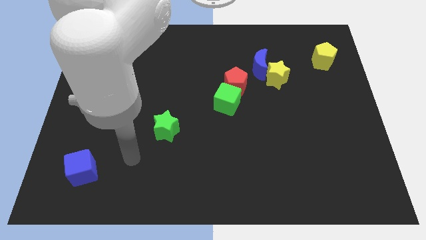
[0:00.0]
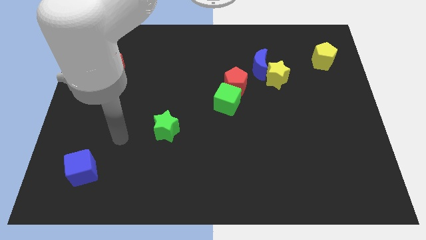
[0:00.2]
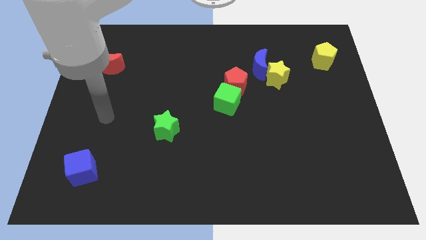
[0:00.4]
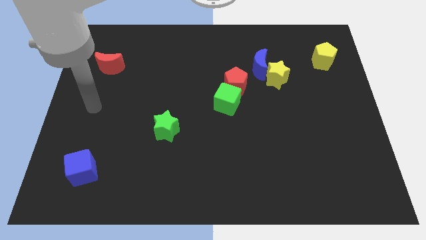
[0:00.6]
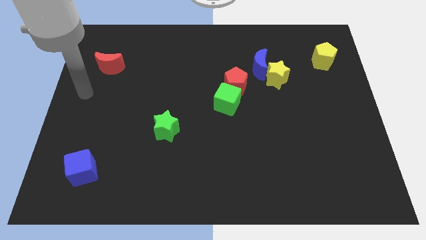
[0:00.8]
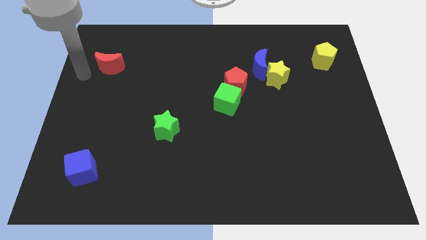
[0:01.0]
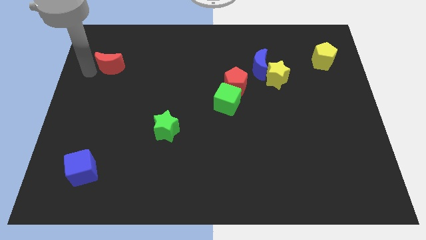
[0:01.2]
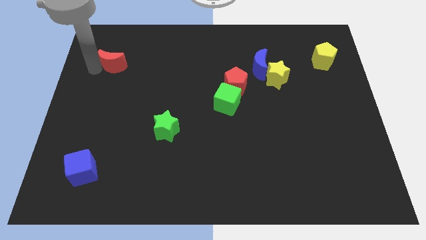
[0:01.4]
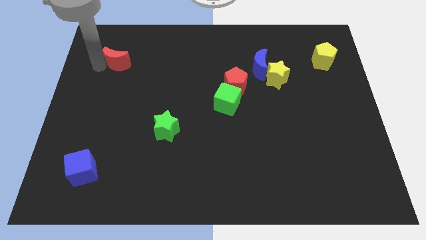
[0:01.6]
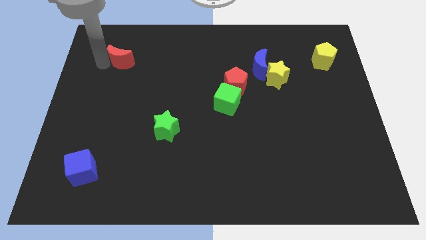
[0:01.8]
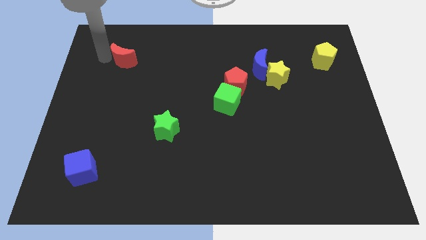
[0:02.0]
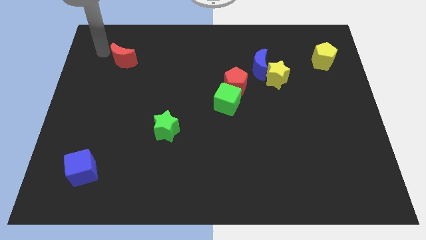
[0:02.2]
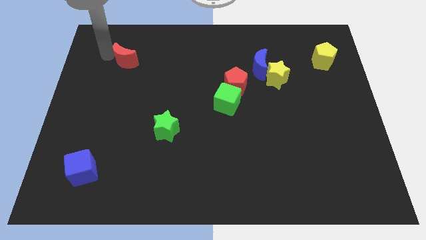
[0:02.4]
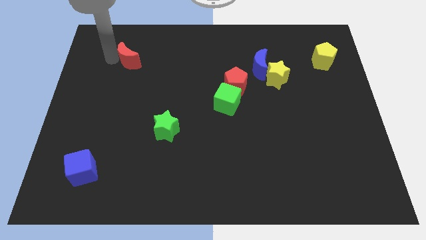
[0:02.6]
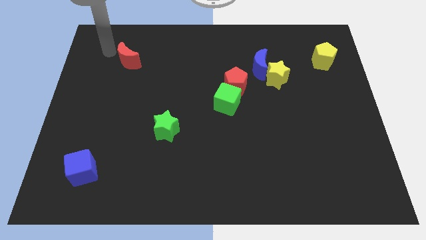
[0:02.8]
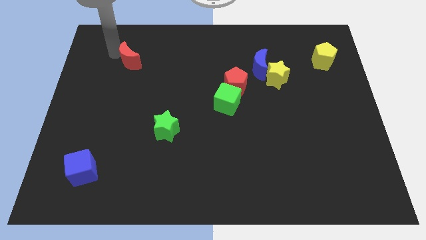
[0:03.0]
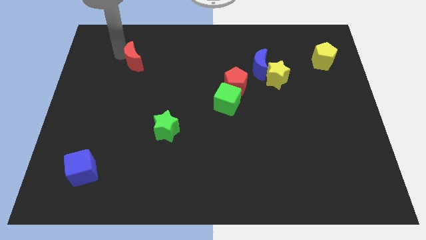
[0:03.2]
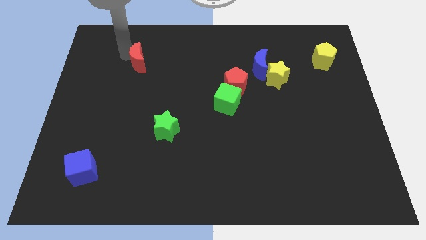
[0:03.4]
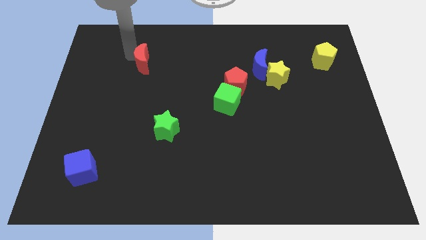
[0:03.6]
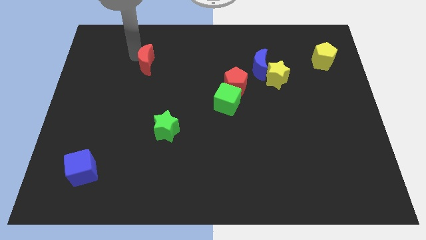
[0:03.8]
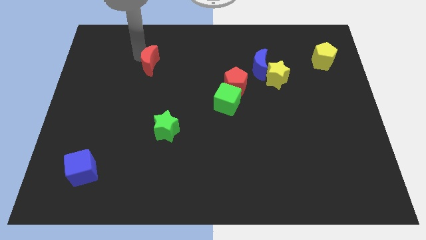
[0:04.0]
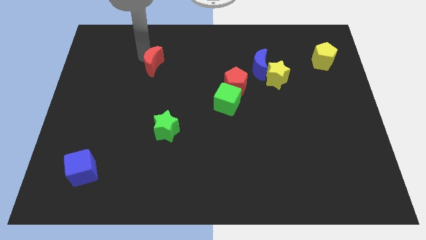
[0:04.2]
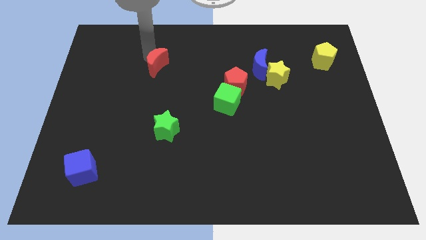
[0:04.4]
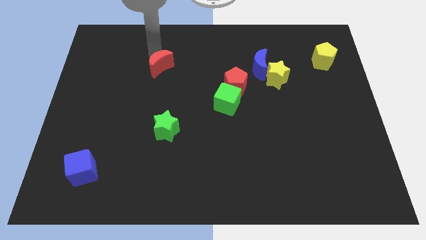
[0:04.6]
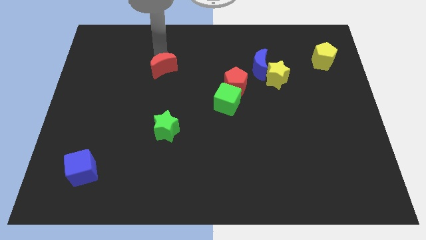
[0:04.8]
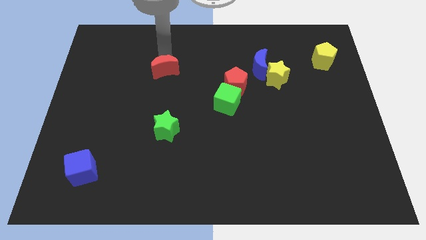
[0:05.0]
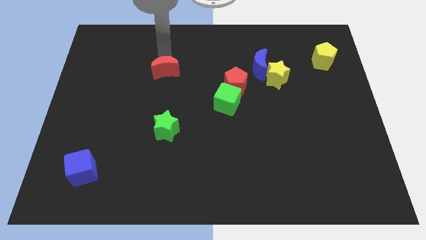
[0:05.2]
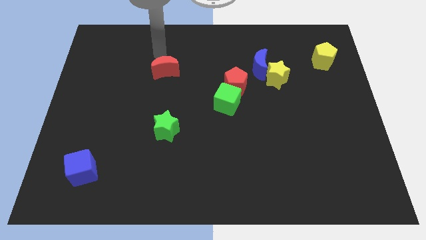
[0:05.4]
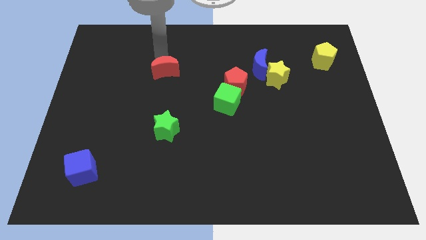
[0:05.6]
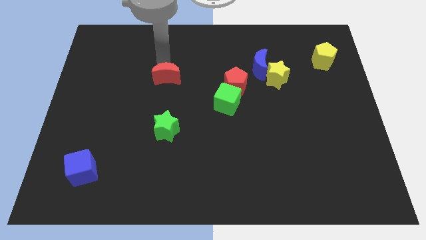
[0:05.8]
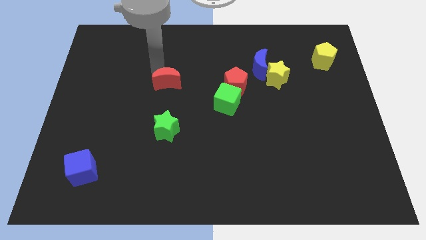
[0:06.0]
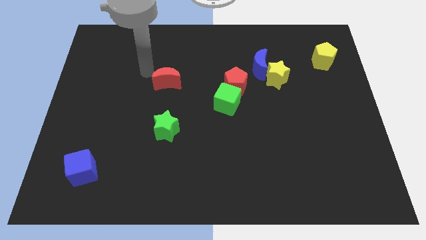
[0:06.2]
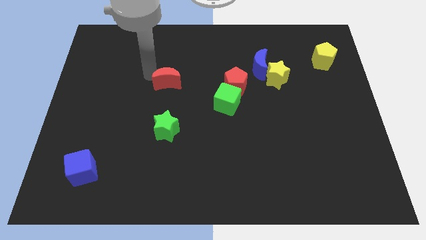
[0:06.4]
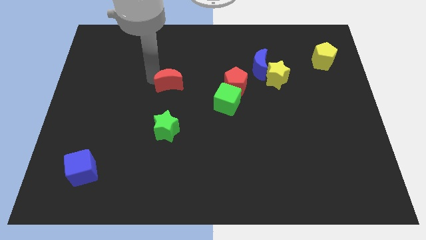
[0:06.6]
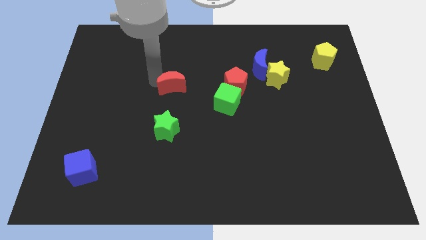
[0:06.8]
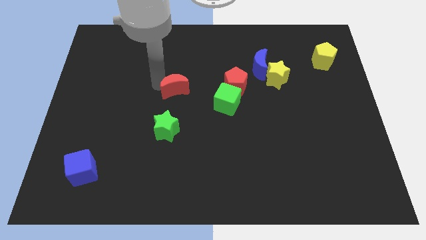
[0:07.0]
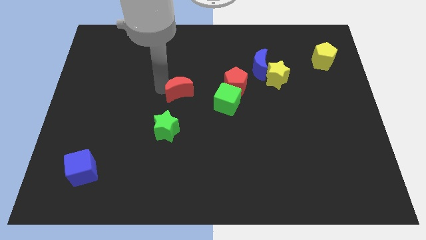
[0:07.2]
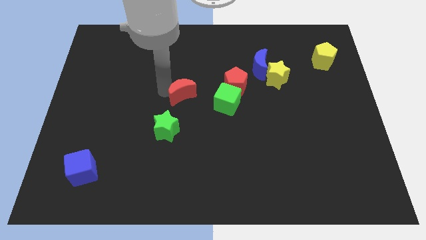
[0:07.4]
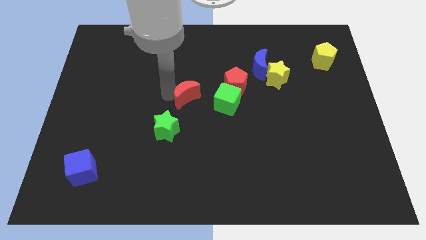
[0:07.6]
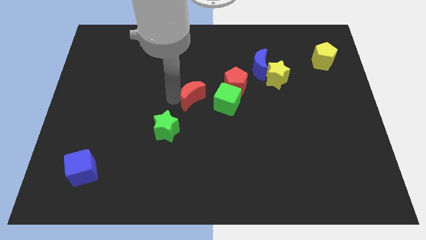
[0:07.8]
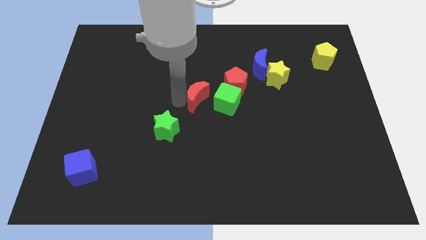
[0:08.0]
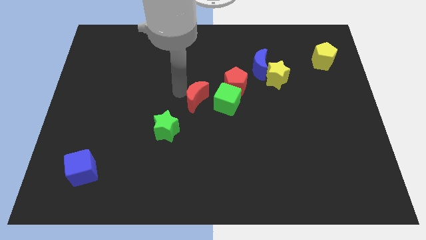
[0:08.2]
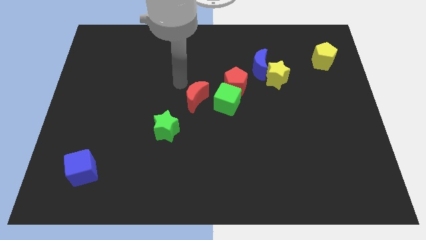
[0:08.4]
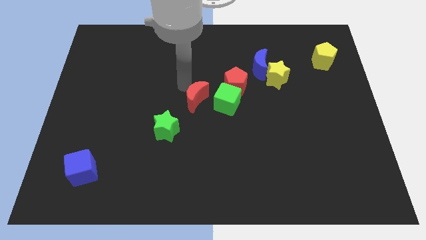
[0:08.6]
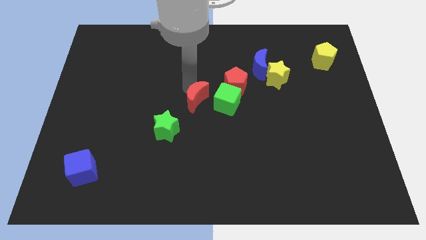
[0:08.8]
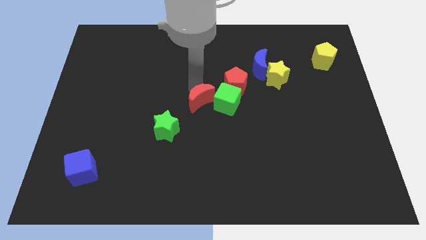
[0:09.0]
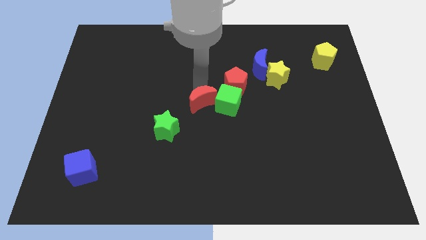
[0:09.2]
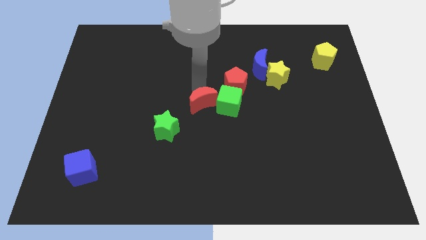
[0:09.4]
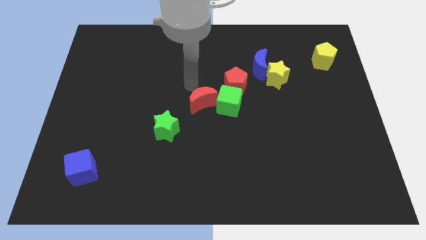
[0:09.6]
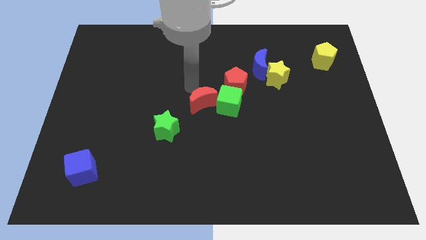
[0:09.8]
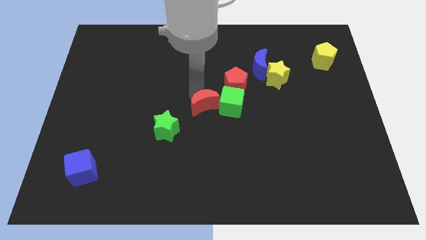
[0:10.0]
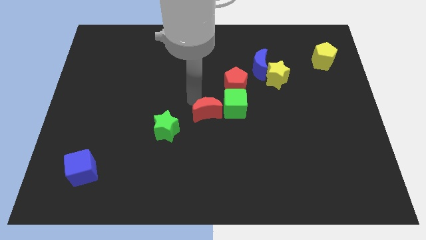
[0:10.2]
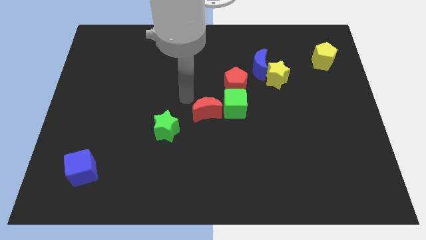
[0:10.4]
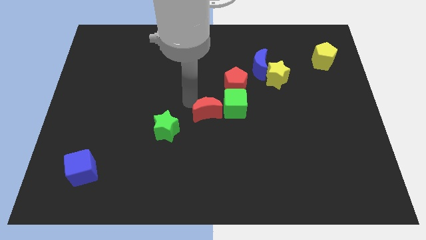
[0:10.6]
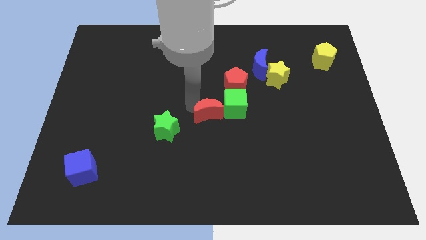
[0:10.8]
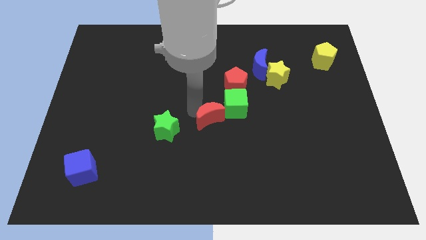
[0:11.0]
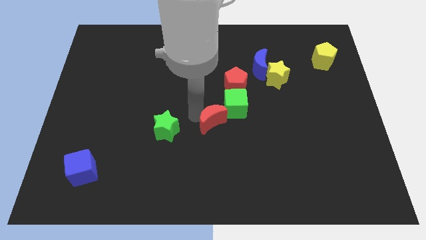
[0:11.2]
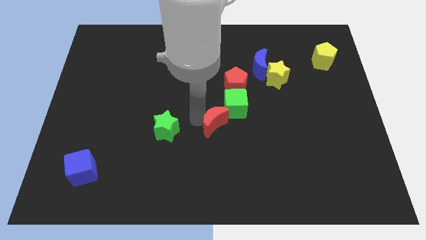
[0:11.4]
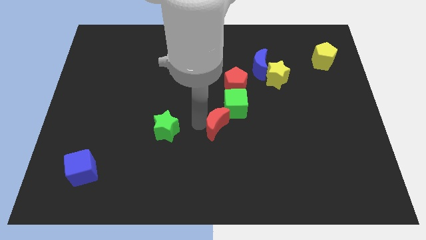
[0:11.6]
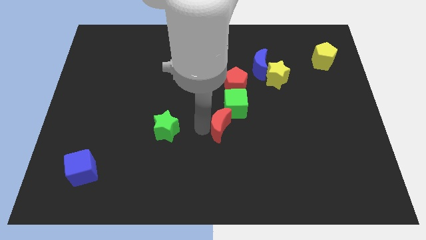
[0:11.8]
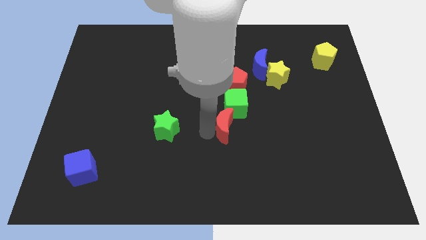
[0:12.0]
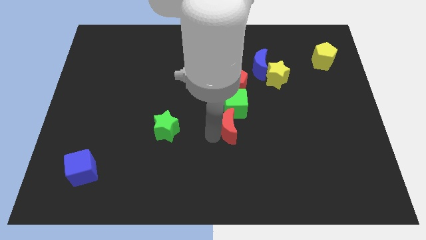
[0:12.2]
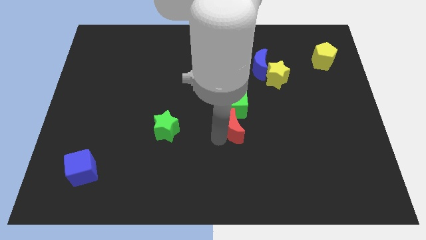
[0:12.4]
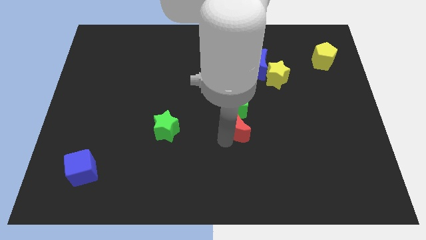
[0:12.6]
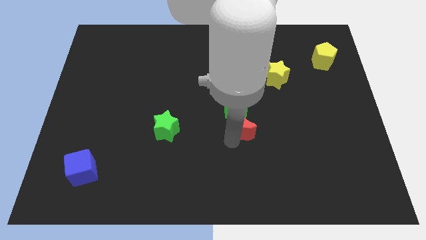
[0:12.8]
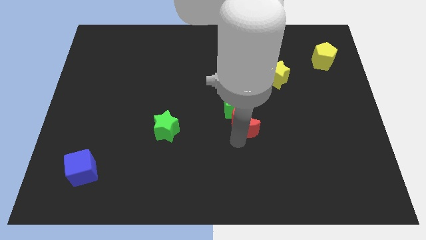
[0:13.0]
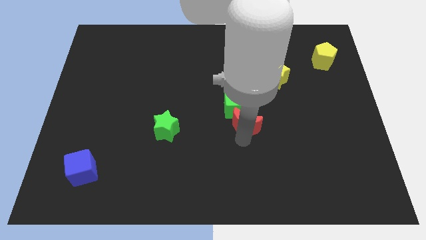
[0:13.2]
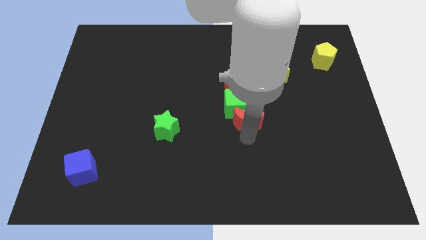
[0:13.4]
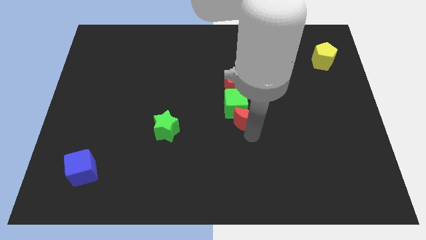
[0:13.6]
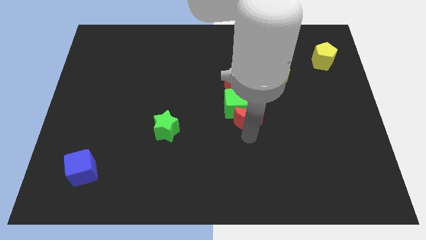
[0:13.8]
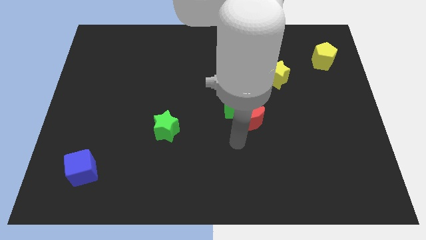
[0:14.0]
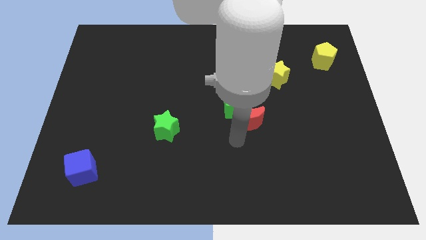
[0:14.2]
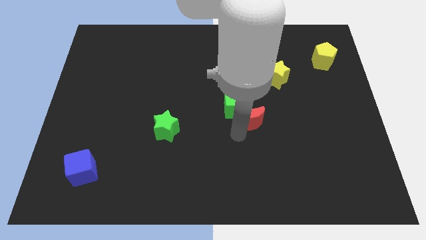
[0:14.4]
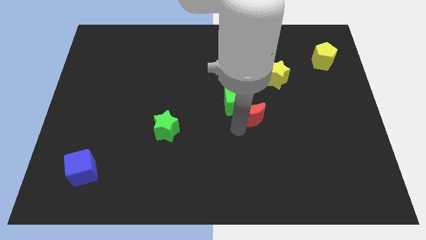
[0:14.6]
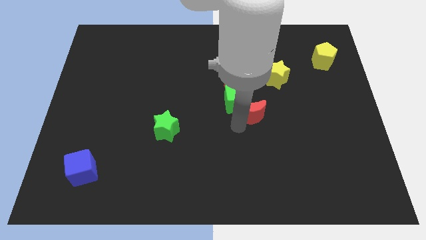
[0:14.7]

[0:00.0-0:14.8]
push the red moon to the bottom of the blue moon

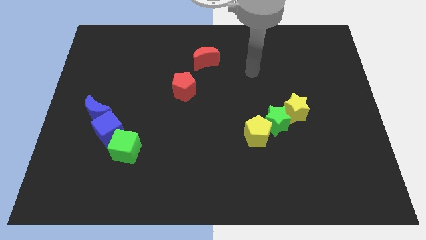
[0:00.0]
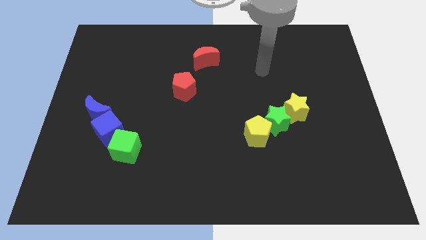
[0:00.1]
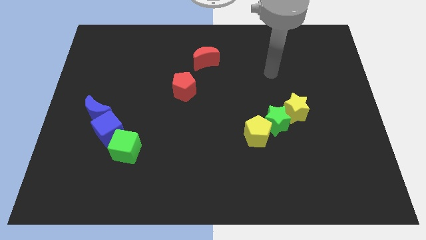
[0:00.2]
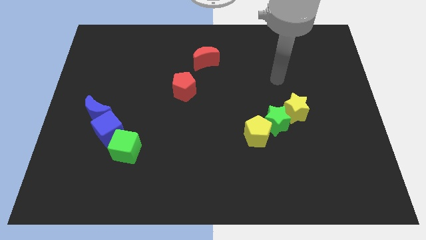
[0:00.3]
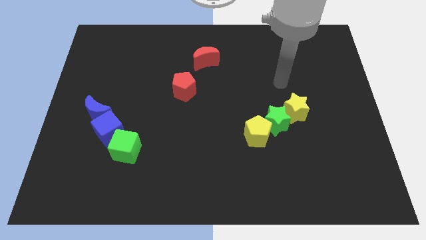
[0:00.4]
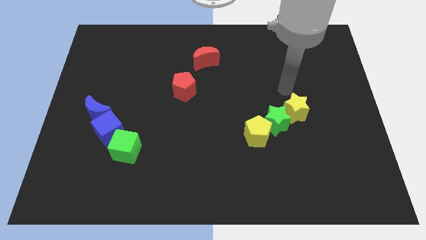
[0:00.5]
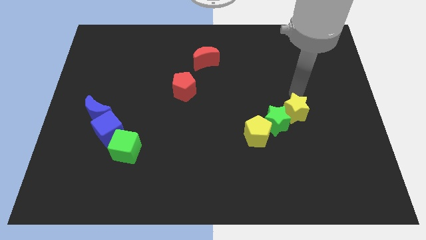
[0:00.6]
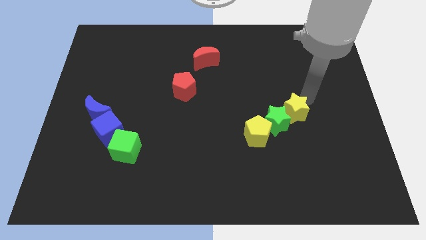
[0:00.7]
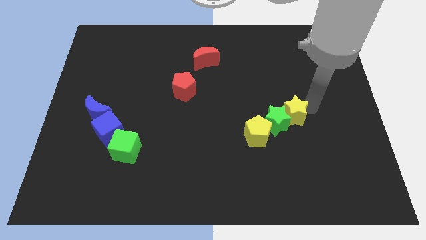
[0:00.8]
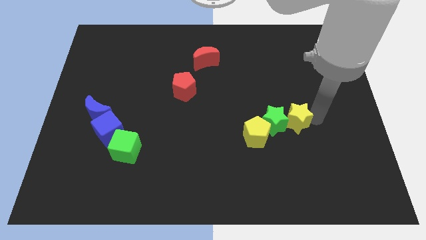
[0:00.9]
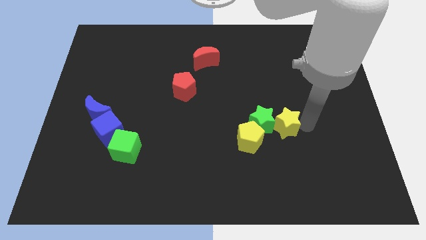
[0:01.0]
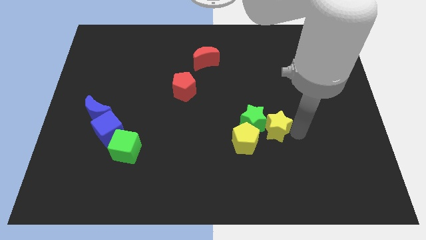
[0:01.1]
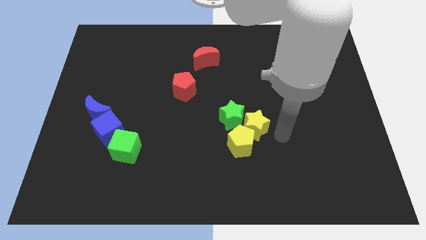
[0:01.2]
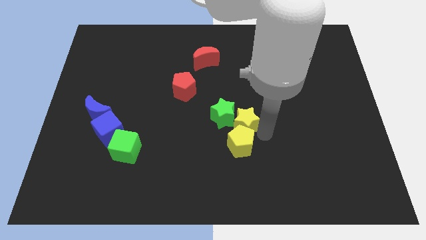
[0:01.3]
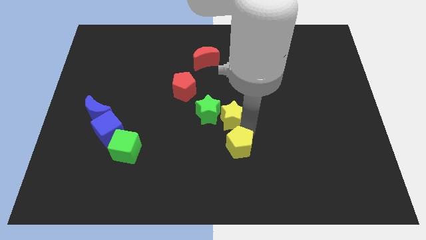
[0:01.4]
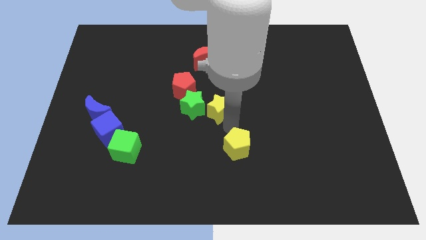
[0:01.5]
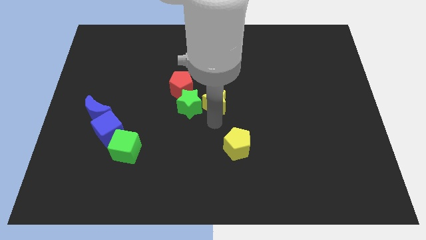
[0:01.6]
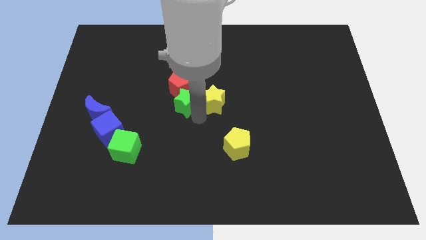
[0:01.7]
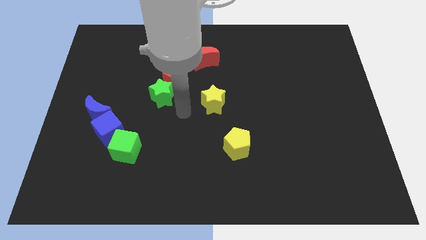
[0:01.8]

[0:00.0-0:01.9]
put the green star diagonally down and to the left of the red pentagon
